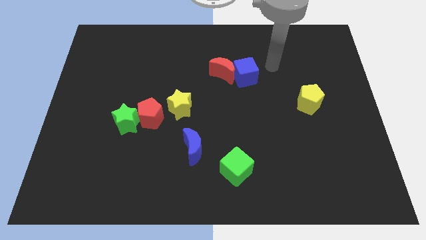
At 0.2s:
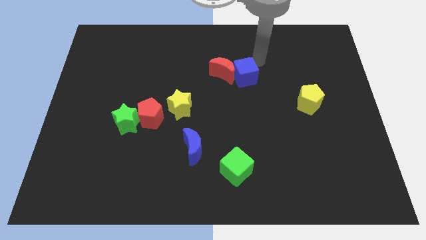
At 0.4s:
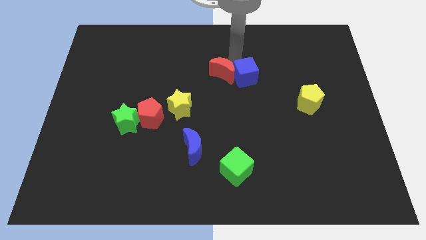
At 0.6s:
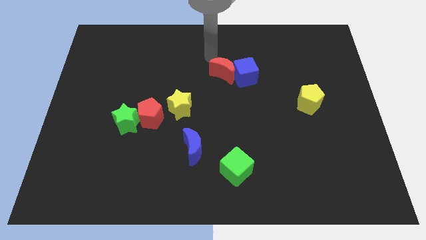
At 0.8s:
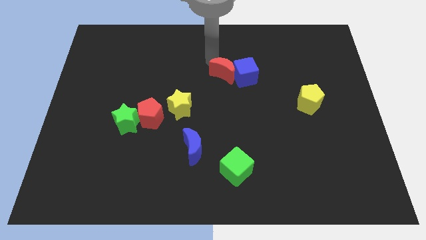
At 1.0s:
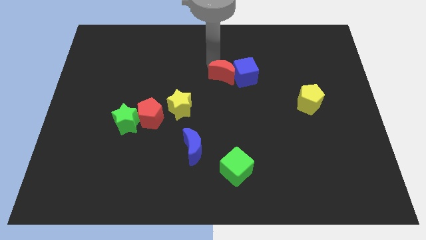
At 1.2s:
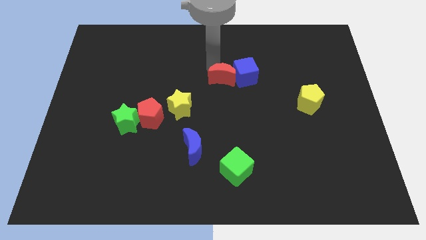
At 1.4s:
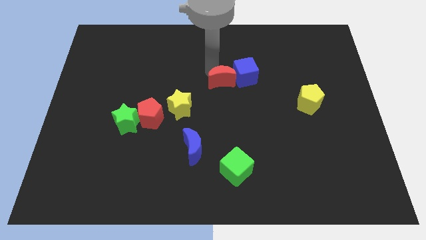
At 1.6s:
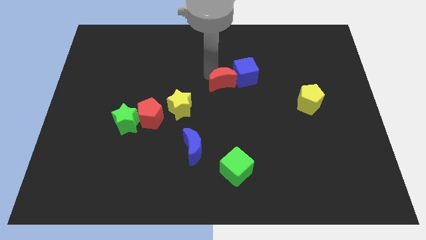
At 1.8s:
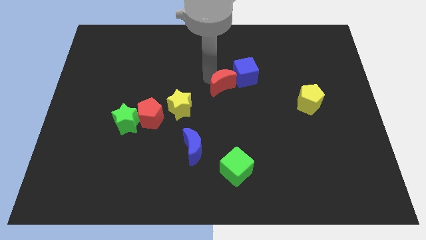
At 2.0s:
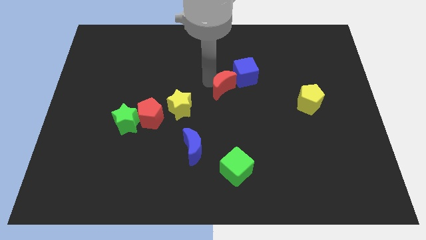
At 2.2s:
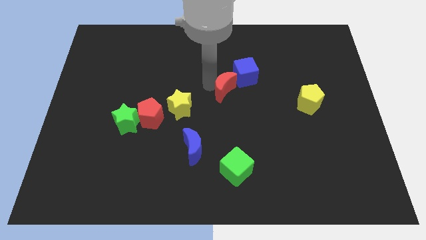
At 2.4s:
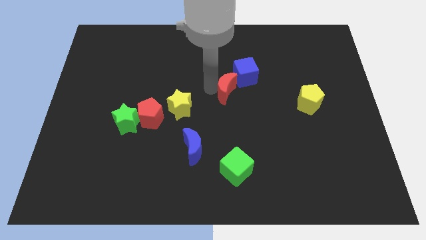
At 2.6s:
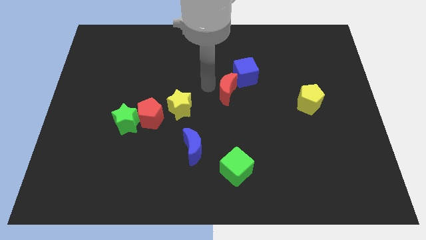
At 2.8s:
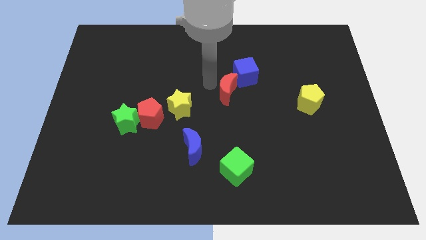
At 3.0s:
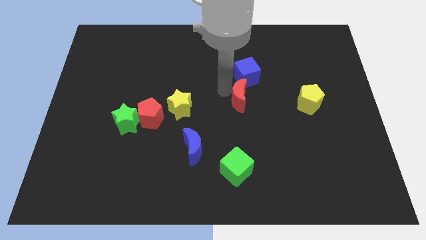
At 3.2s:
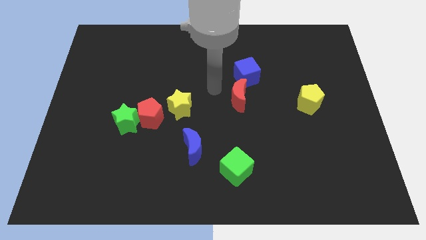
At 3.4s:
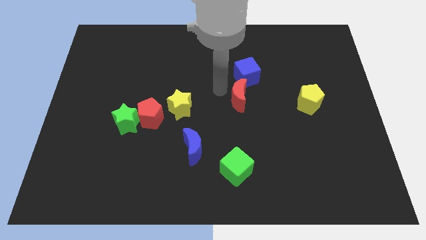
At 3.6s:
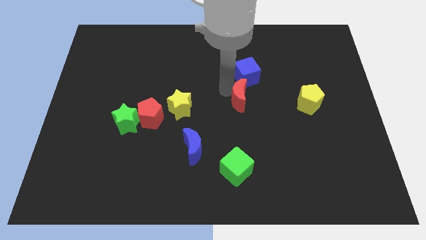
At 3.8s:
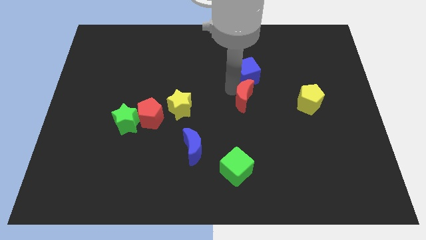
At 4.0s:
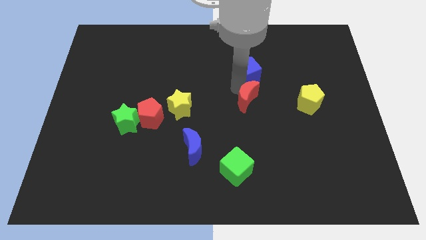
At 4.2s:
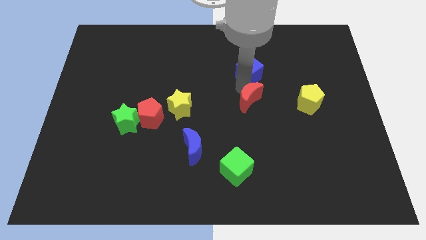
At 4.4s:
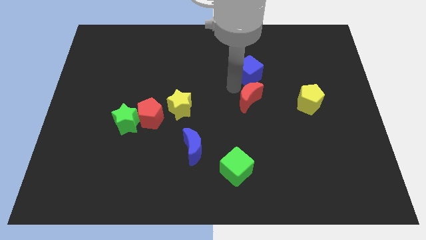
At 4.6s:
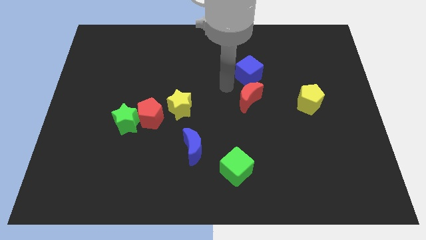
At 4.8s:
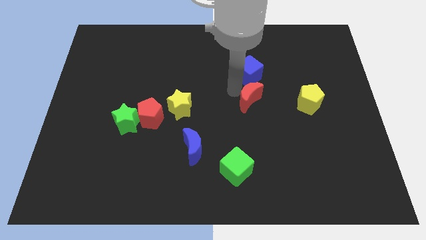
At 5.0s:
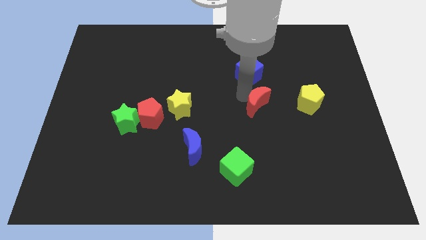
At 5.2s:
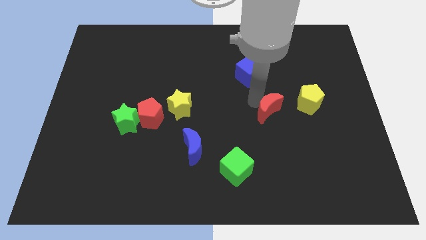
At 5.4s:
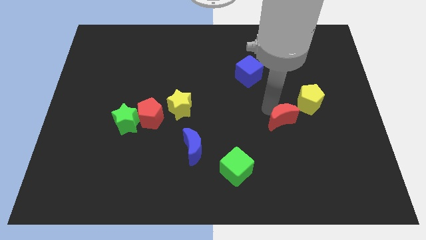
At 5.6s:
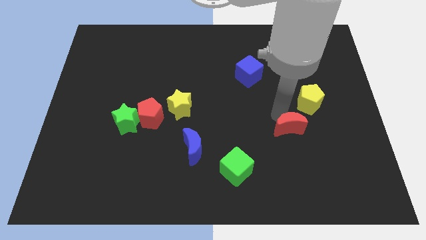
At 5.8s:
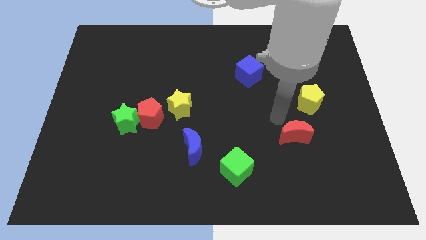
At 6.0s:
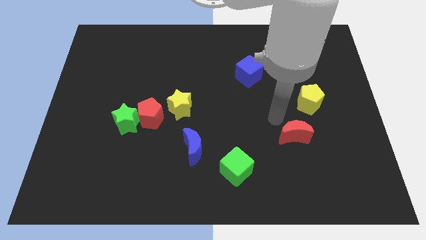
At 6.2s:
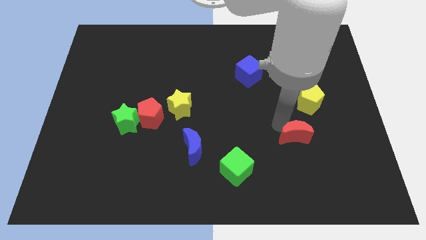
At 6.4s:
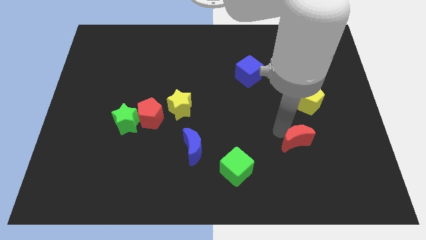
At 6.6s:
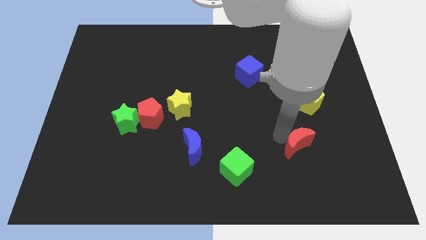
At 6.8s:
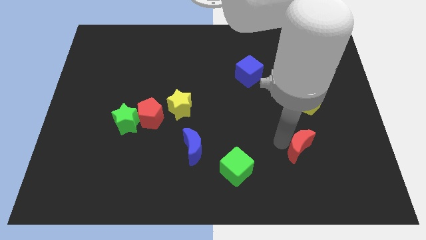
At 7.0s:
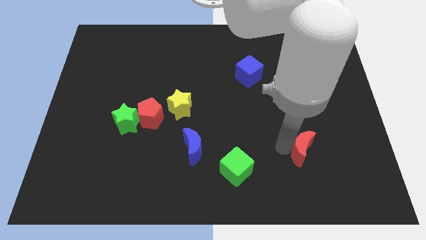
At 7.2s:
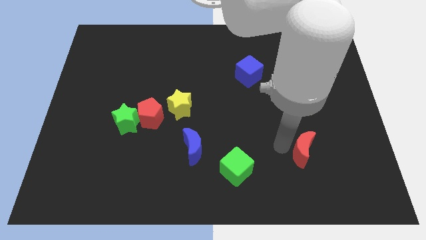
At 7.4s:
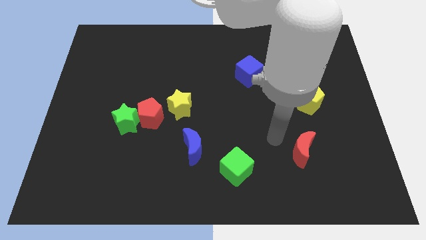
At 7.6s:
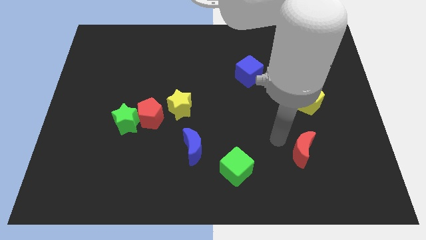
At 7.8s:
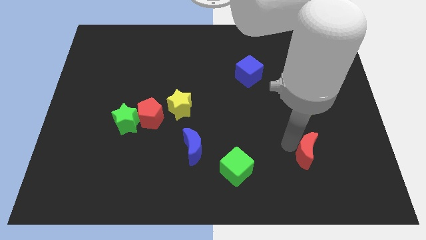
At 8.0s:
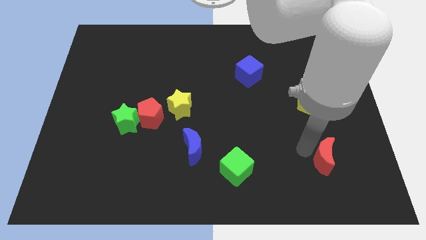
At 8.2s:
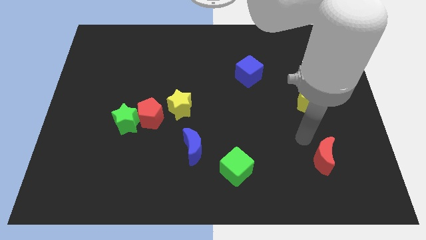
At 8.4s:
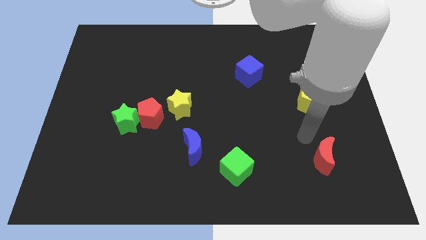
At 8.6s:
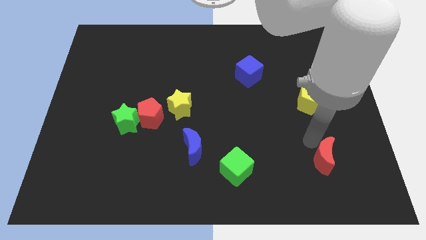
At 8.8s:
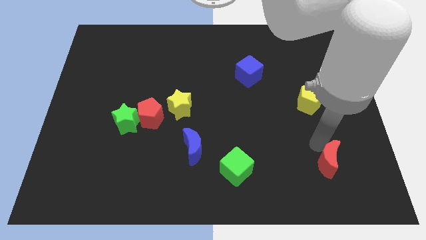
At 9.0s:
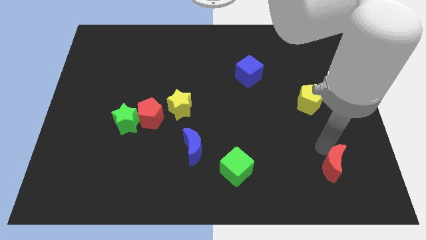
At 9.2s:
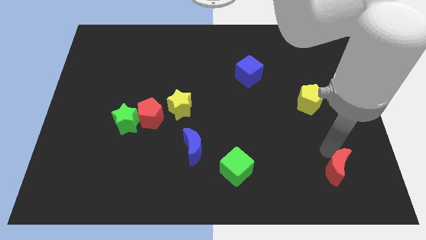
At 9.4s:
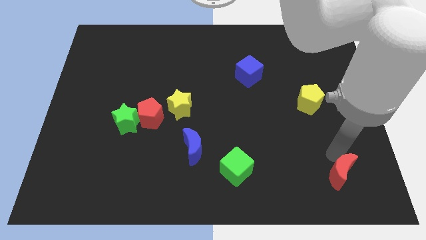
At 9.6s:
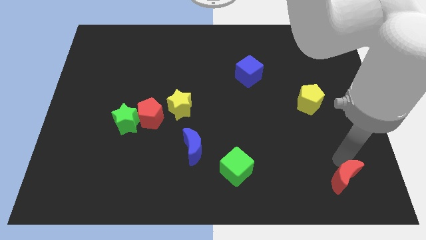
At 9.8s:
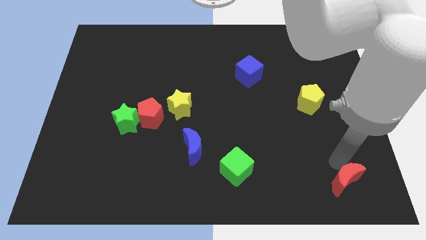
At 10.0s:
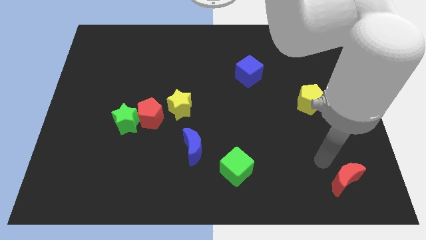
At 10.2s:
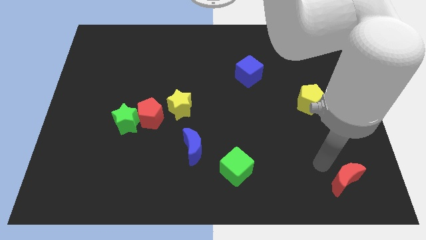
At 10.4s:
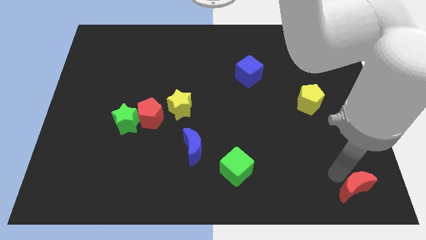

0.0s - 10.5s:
put the red moon to the lower right corner

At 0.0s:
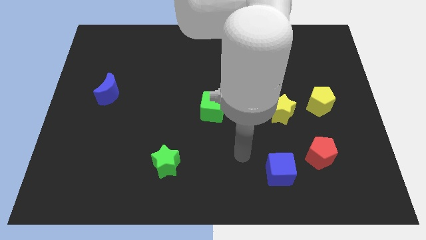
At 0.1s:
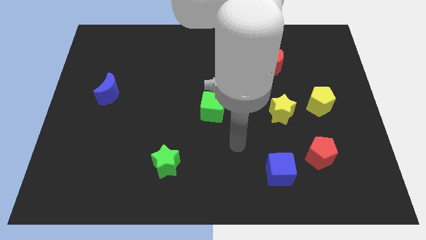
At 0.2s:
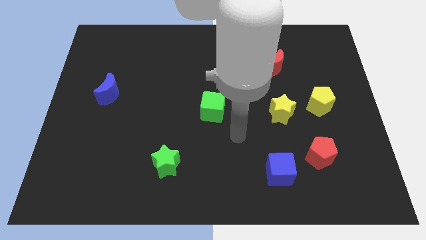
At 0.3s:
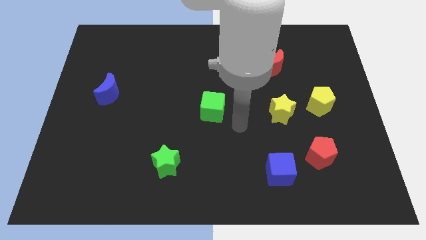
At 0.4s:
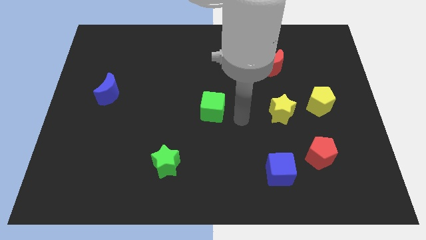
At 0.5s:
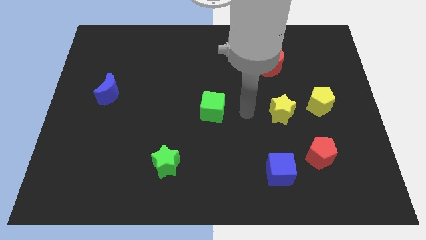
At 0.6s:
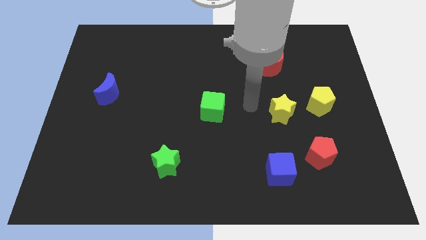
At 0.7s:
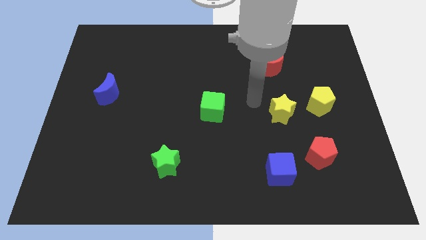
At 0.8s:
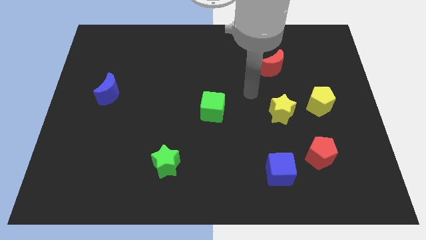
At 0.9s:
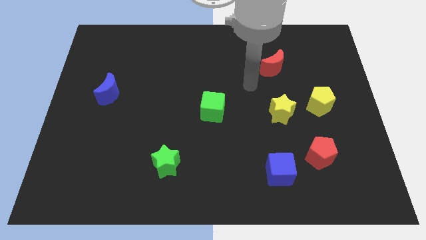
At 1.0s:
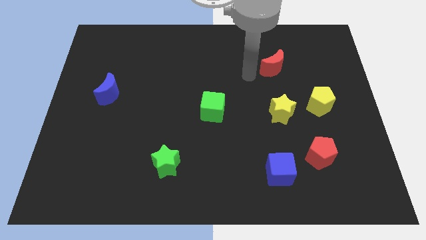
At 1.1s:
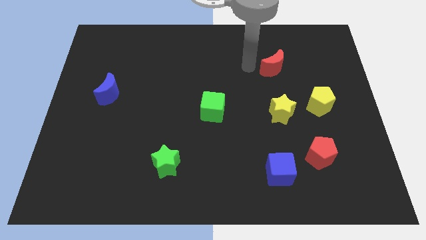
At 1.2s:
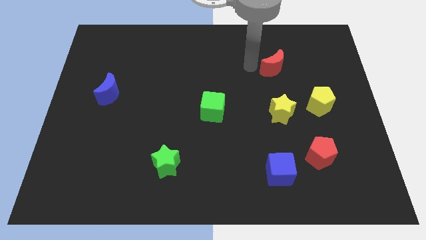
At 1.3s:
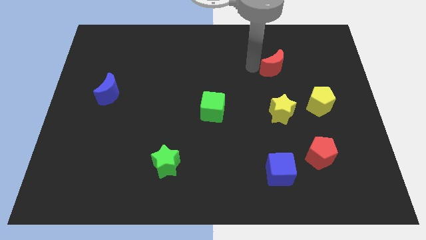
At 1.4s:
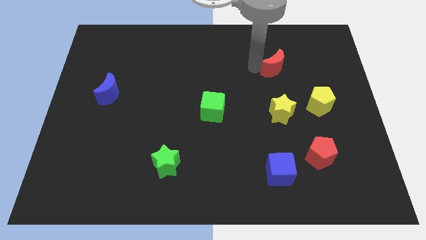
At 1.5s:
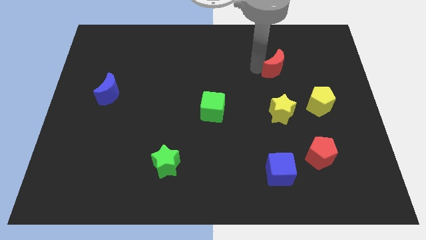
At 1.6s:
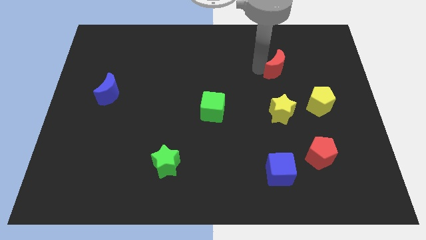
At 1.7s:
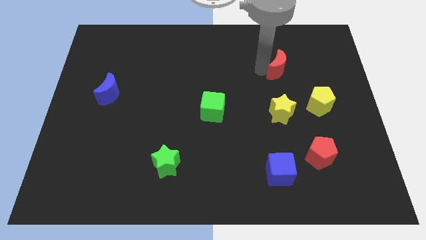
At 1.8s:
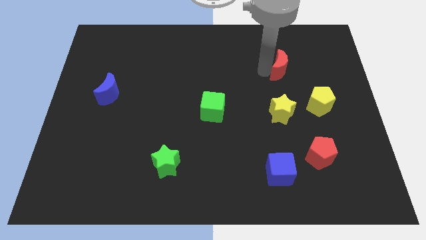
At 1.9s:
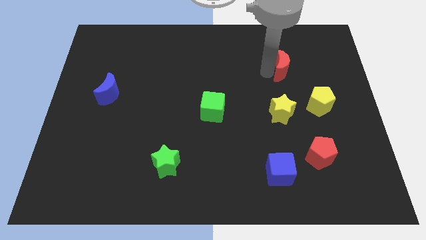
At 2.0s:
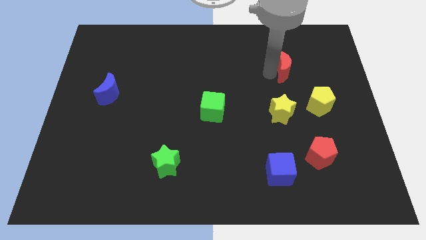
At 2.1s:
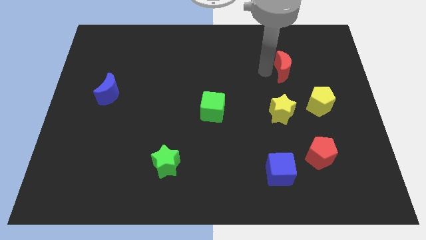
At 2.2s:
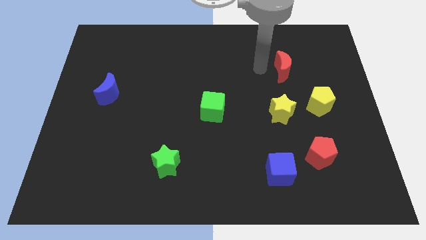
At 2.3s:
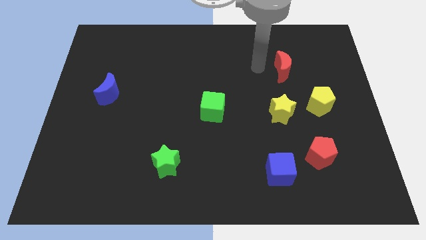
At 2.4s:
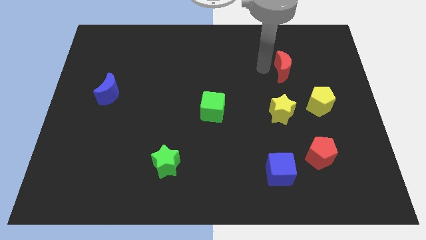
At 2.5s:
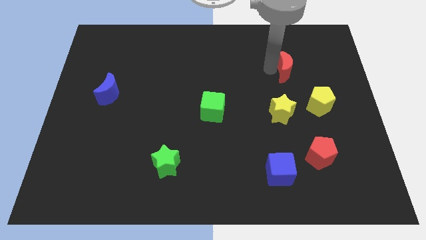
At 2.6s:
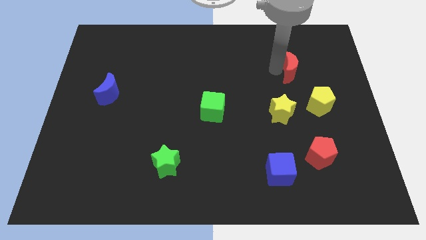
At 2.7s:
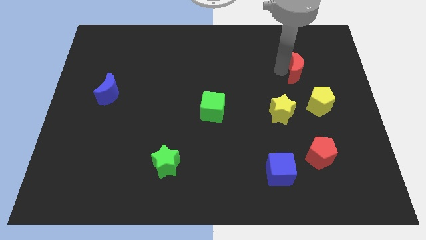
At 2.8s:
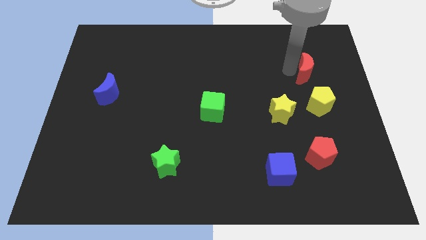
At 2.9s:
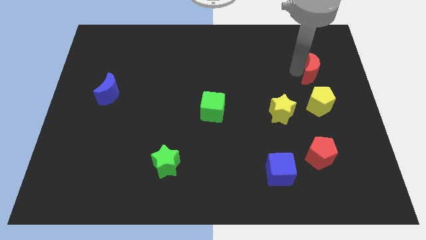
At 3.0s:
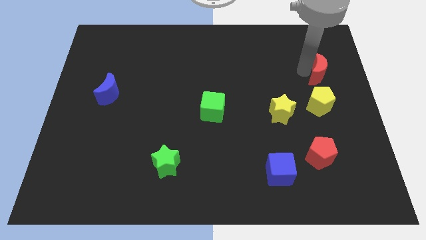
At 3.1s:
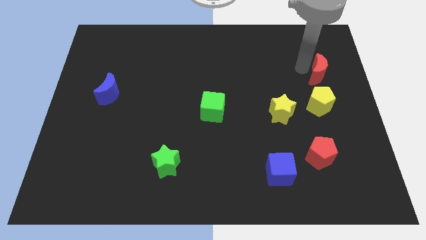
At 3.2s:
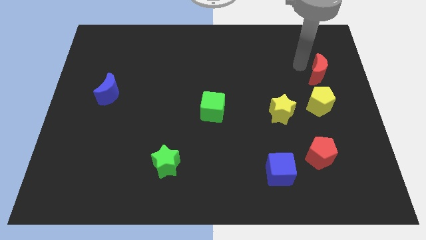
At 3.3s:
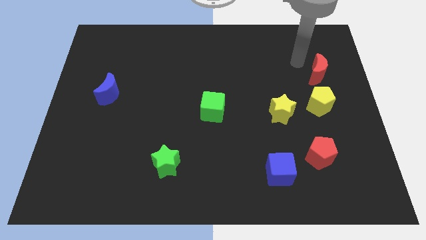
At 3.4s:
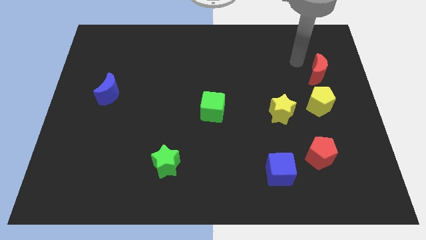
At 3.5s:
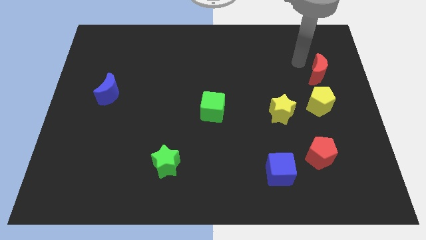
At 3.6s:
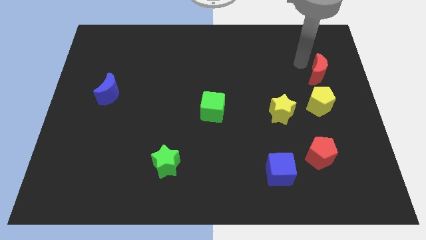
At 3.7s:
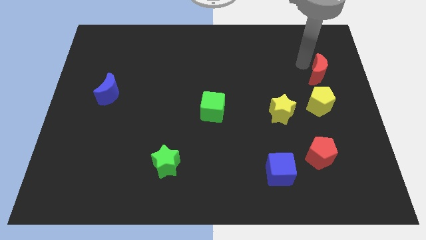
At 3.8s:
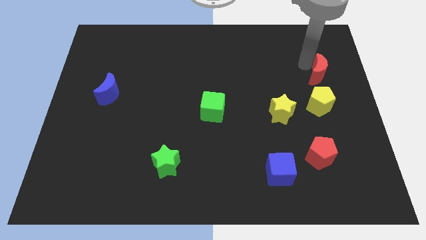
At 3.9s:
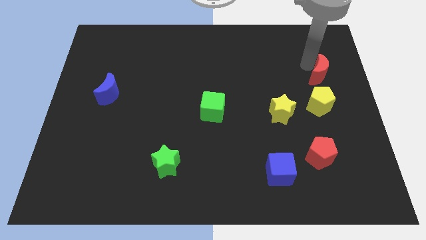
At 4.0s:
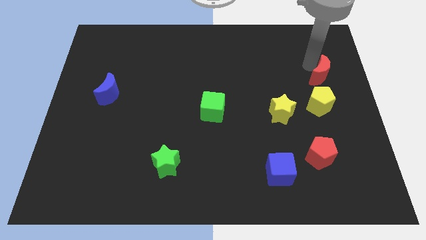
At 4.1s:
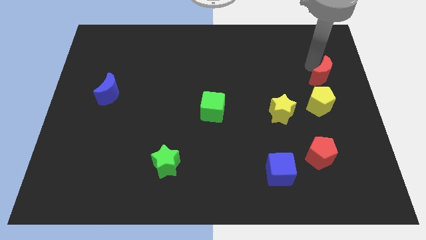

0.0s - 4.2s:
slide the red moon to the right side of the board
